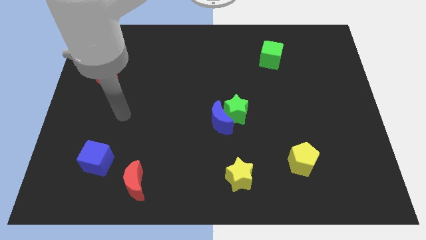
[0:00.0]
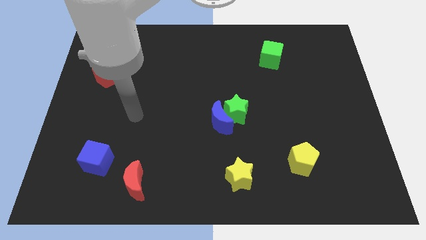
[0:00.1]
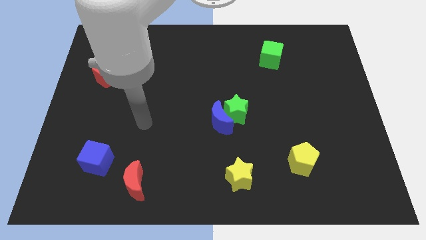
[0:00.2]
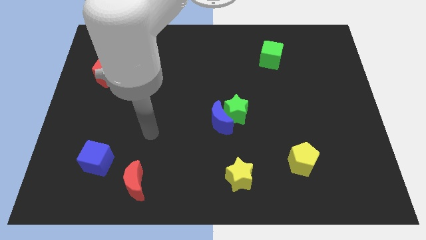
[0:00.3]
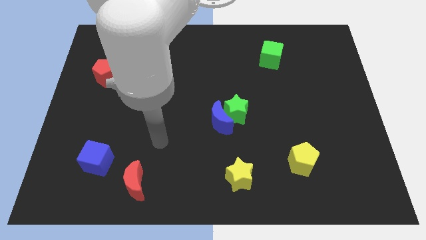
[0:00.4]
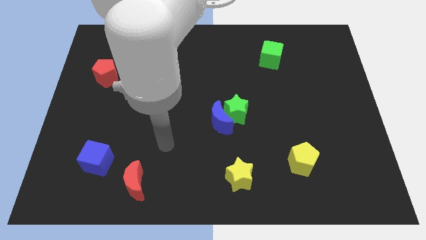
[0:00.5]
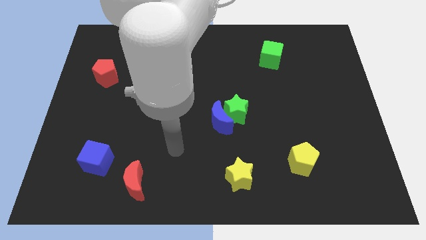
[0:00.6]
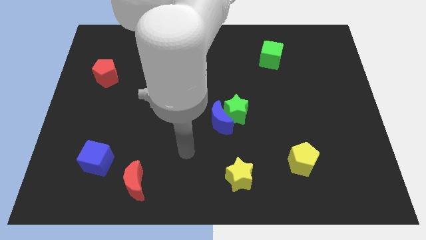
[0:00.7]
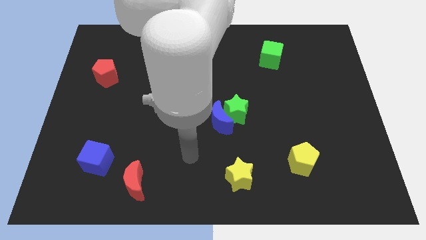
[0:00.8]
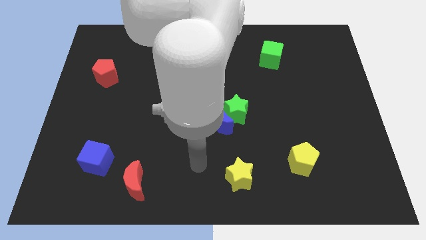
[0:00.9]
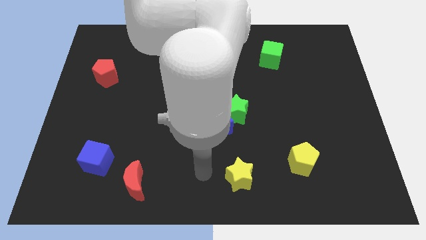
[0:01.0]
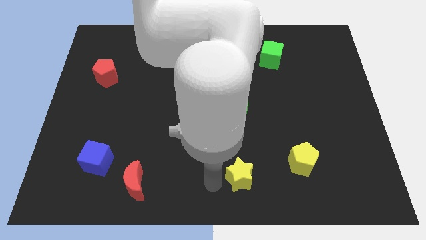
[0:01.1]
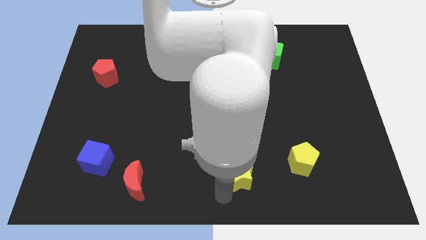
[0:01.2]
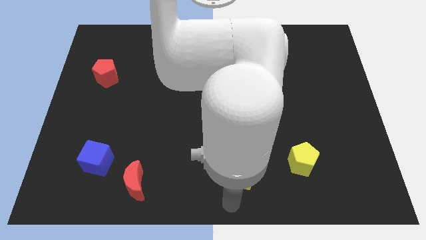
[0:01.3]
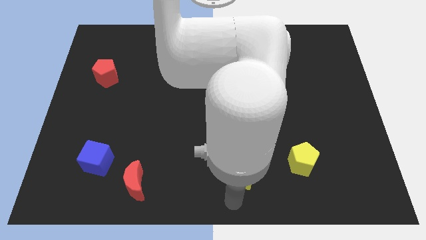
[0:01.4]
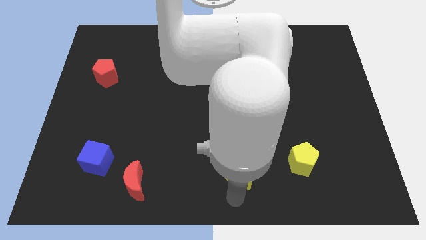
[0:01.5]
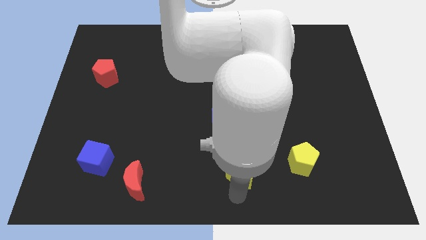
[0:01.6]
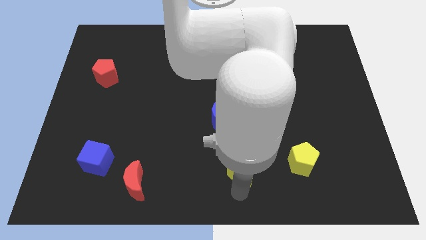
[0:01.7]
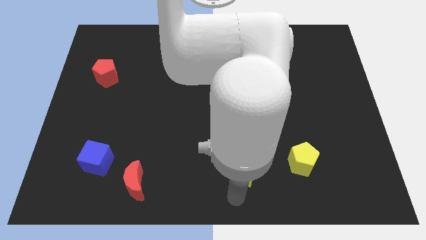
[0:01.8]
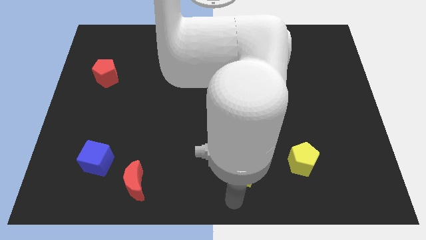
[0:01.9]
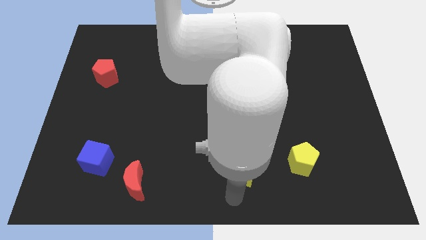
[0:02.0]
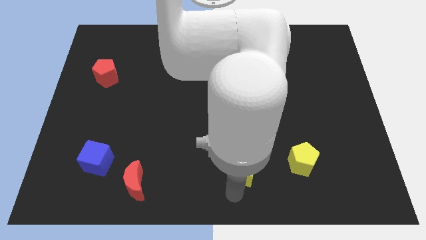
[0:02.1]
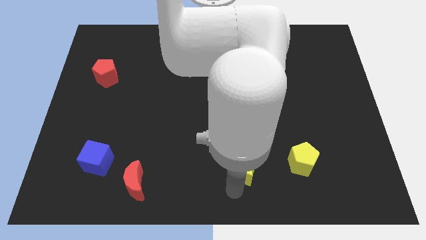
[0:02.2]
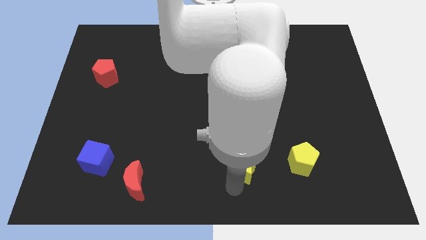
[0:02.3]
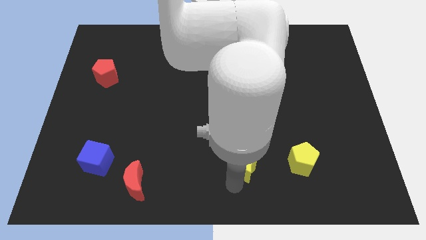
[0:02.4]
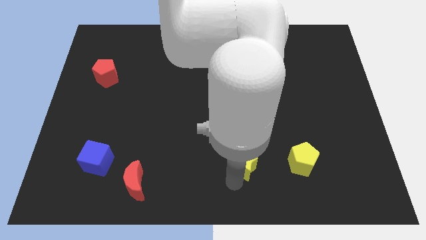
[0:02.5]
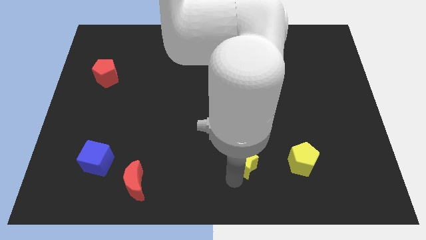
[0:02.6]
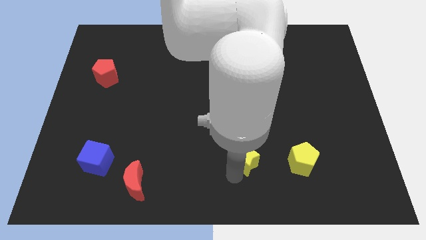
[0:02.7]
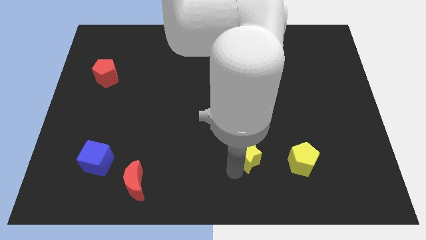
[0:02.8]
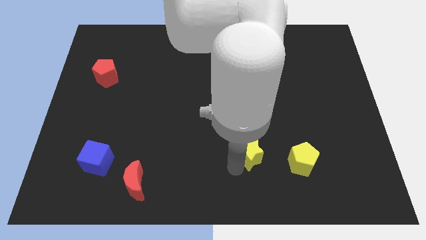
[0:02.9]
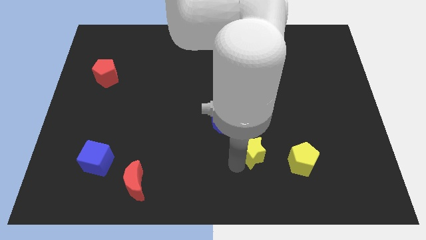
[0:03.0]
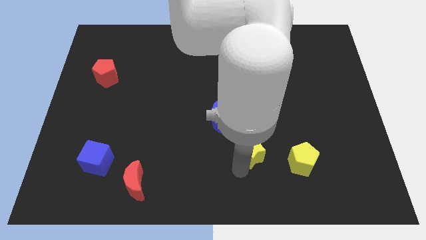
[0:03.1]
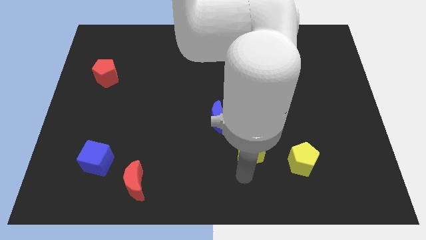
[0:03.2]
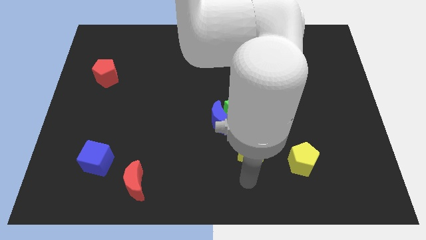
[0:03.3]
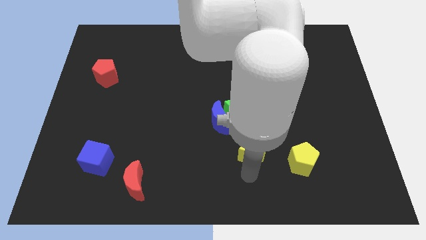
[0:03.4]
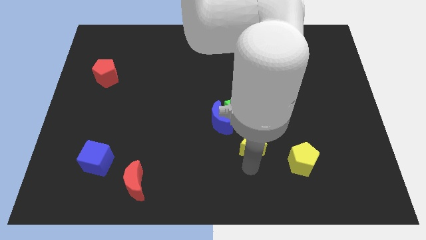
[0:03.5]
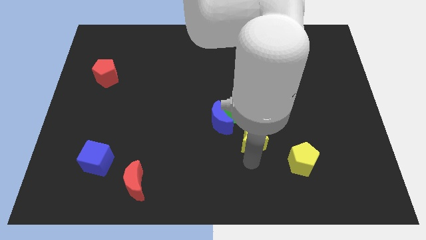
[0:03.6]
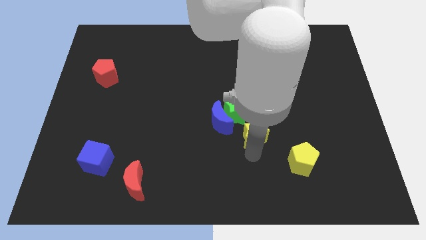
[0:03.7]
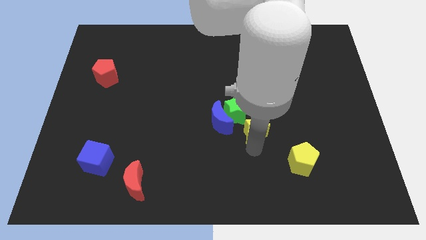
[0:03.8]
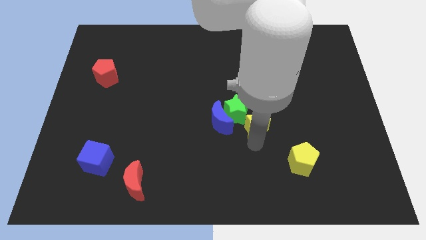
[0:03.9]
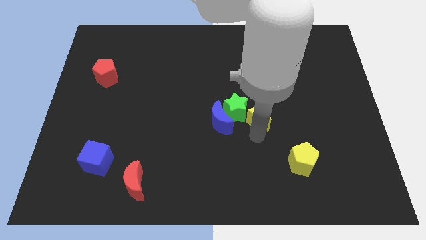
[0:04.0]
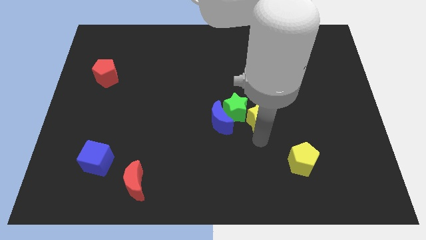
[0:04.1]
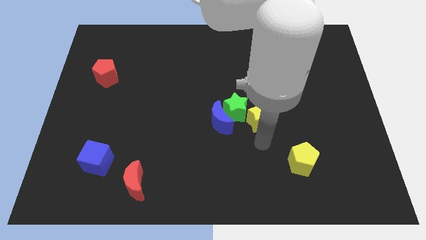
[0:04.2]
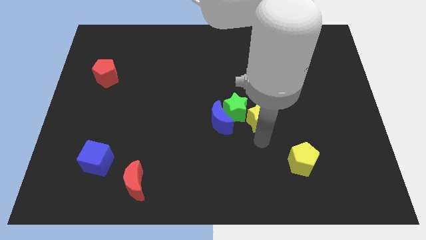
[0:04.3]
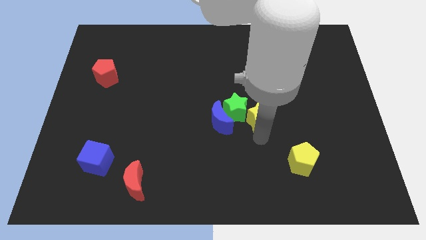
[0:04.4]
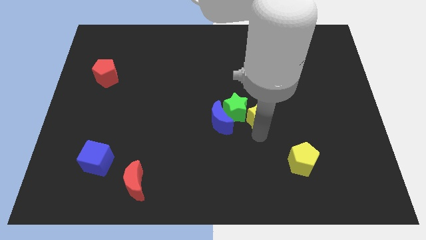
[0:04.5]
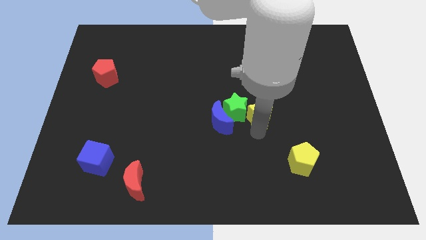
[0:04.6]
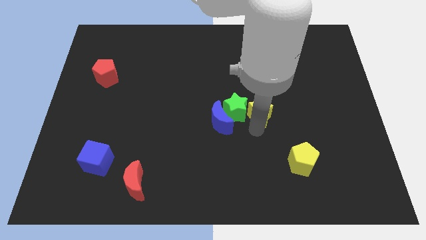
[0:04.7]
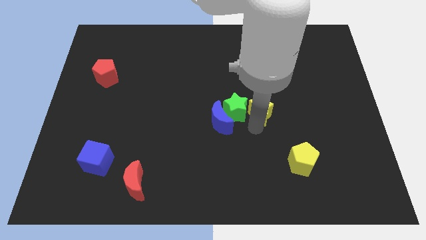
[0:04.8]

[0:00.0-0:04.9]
slide the yellow star diagonally up and to the right of the blue moon
